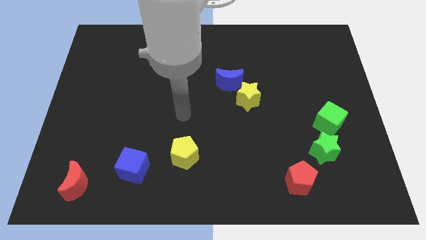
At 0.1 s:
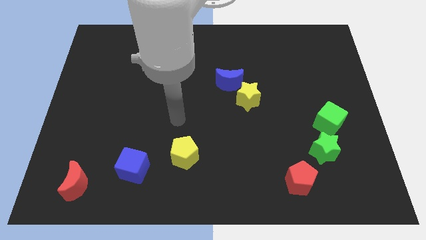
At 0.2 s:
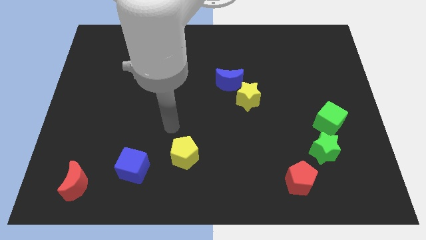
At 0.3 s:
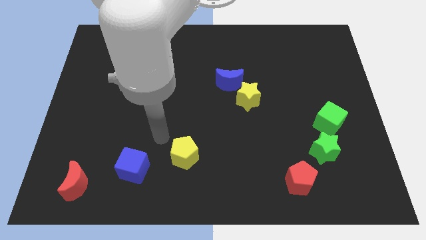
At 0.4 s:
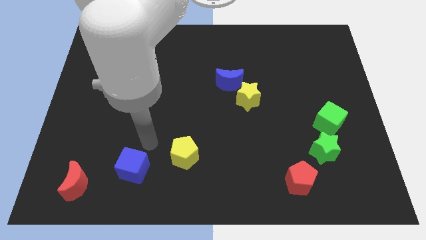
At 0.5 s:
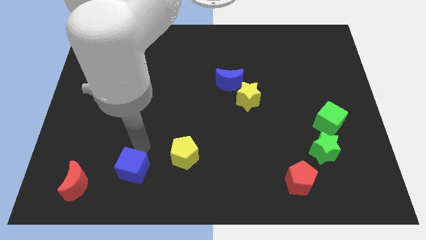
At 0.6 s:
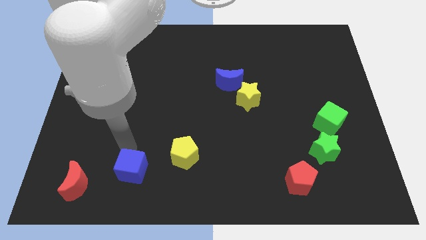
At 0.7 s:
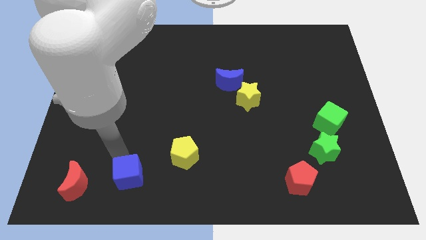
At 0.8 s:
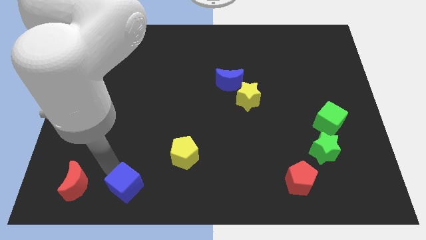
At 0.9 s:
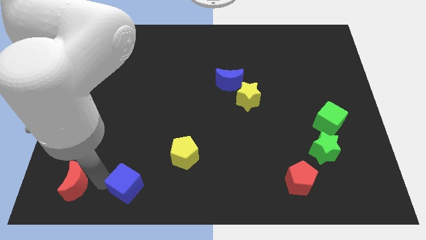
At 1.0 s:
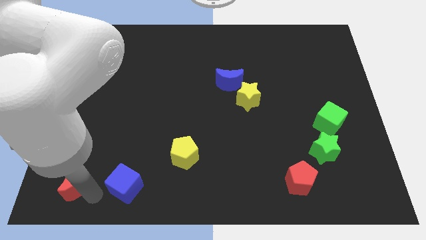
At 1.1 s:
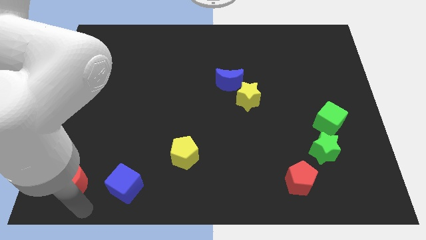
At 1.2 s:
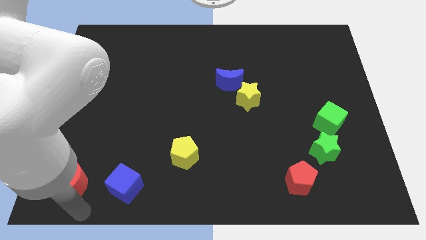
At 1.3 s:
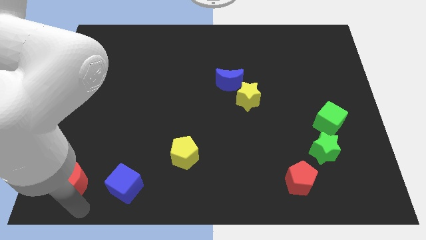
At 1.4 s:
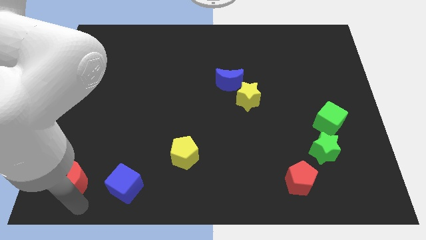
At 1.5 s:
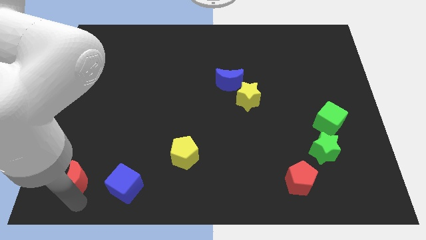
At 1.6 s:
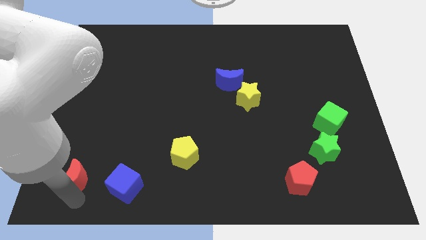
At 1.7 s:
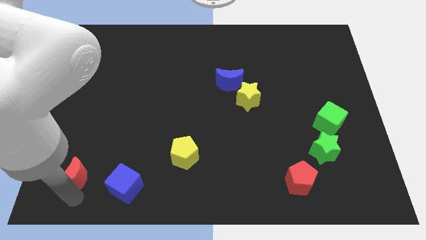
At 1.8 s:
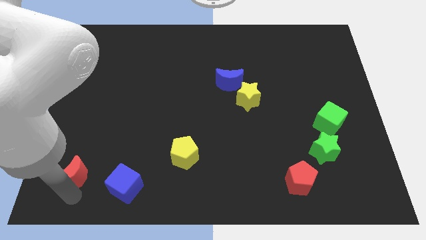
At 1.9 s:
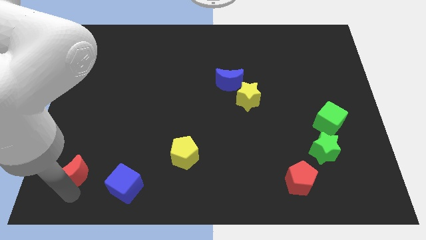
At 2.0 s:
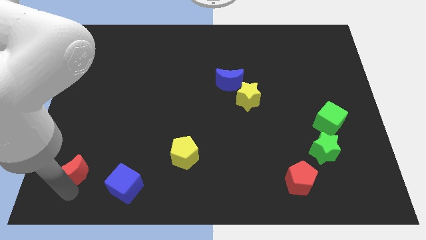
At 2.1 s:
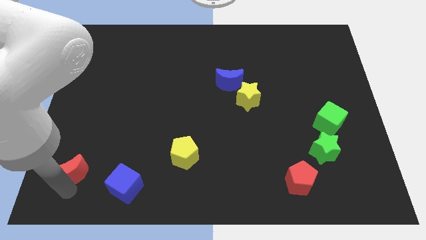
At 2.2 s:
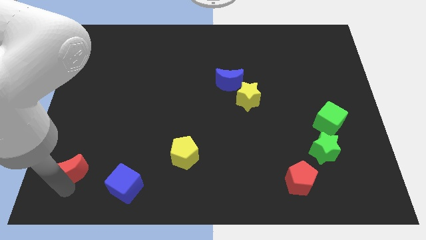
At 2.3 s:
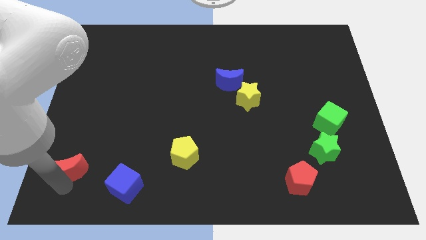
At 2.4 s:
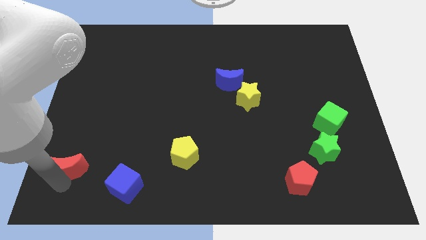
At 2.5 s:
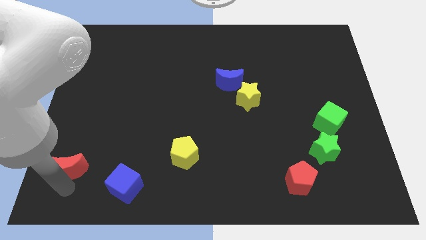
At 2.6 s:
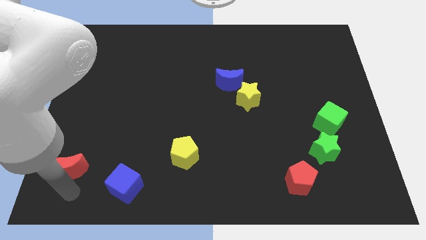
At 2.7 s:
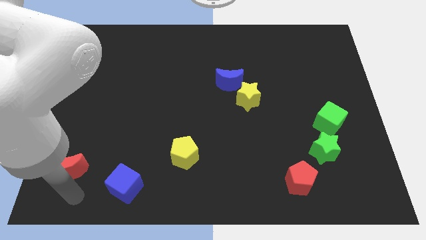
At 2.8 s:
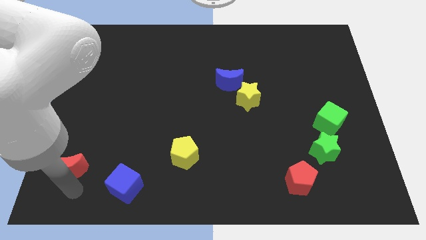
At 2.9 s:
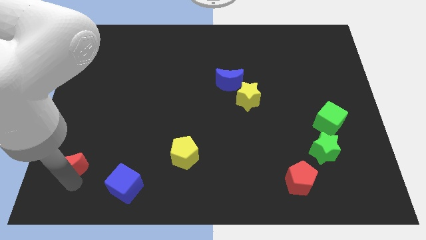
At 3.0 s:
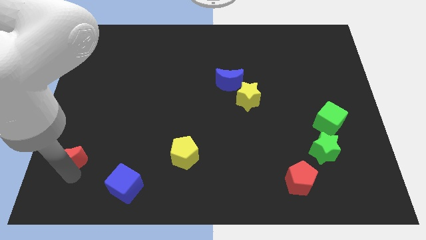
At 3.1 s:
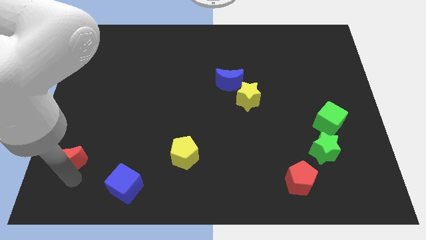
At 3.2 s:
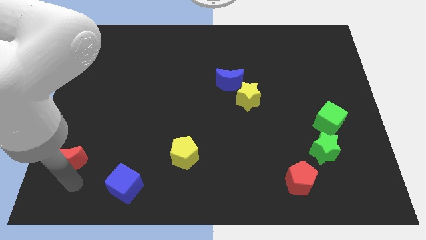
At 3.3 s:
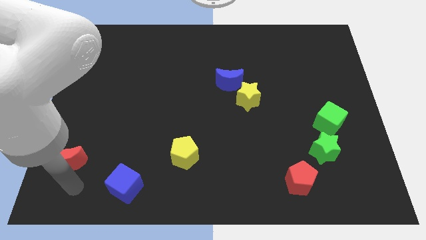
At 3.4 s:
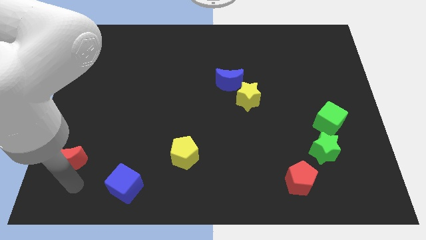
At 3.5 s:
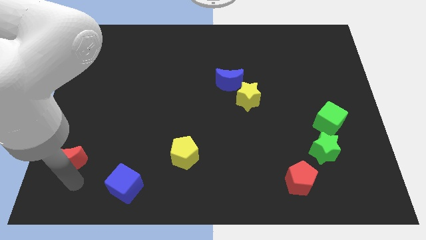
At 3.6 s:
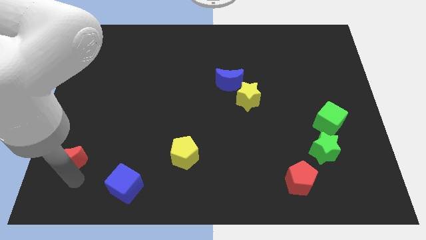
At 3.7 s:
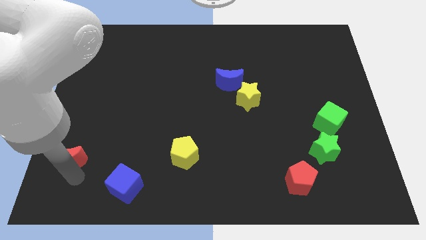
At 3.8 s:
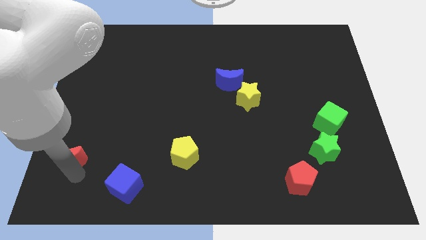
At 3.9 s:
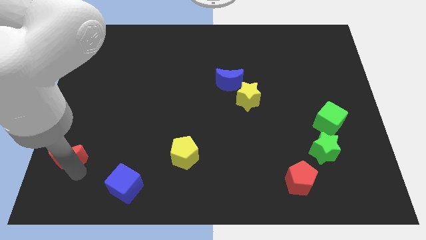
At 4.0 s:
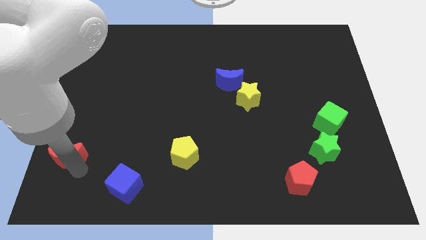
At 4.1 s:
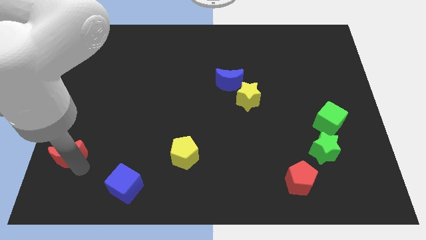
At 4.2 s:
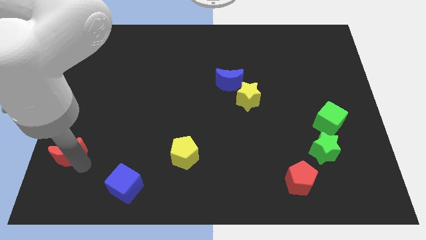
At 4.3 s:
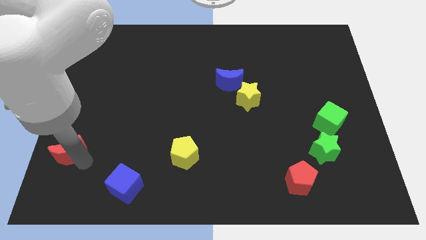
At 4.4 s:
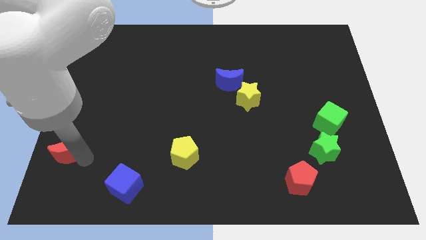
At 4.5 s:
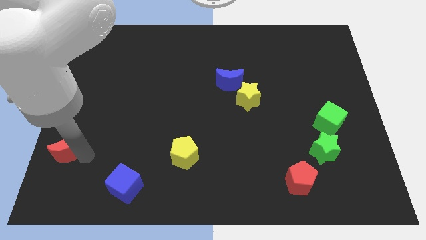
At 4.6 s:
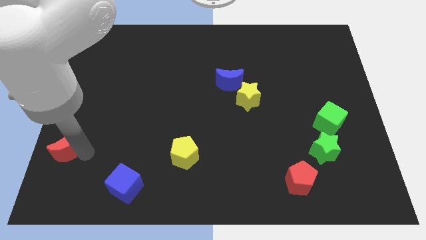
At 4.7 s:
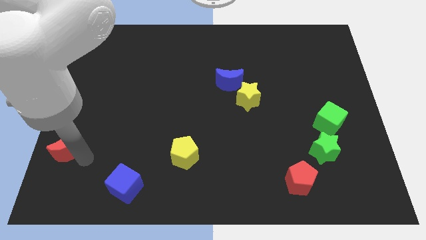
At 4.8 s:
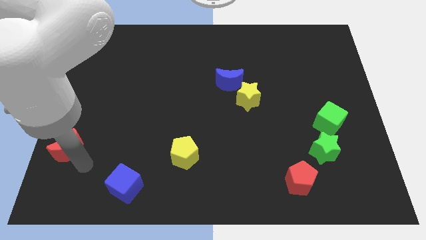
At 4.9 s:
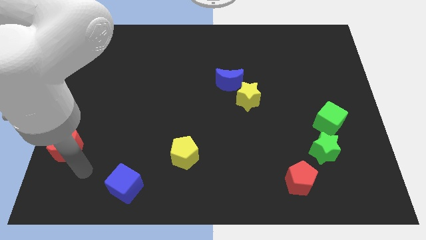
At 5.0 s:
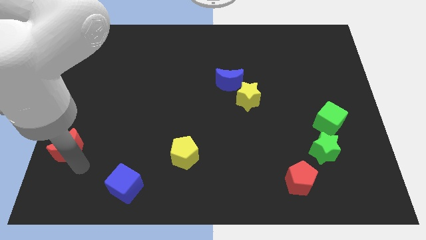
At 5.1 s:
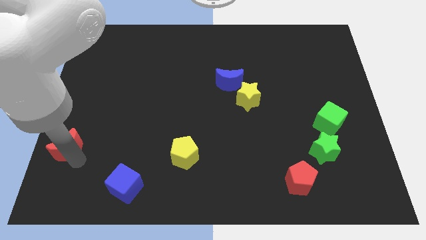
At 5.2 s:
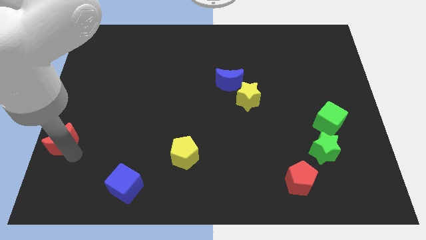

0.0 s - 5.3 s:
slide the red moon to the left side of the board

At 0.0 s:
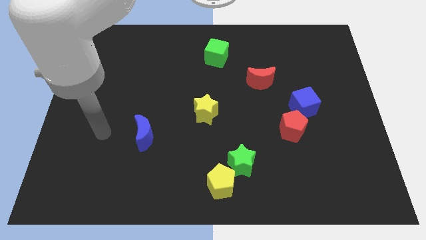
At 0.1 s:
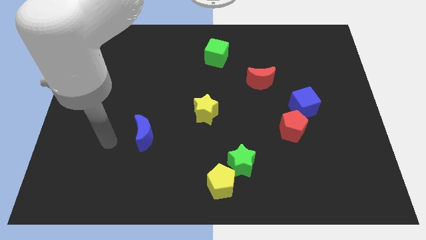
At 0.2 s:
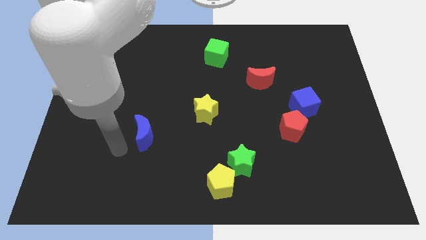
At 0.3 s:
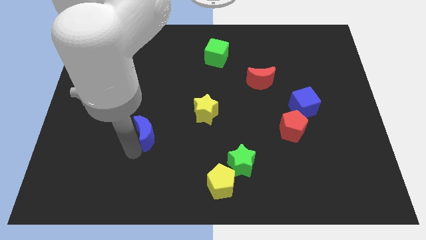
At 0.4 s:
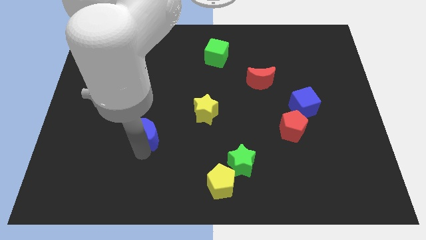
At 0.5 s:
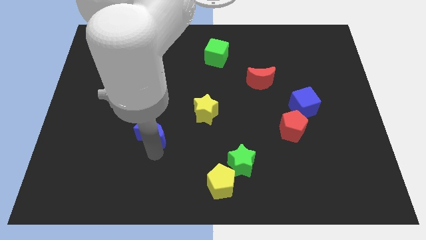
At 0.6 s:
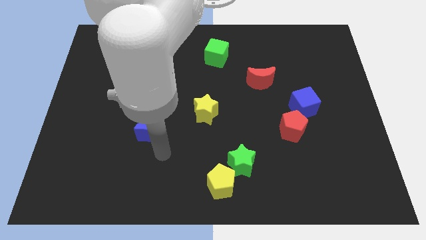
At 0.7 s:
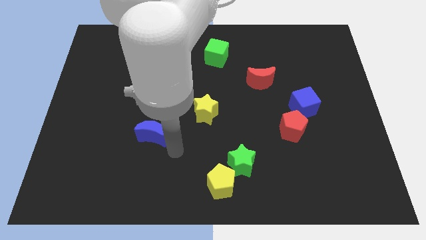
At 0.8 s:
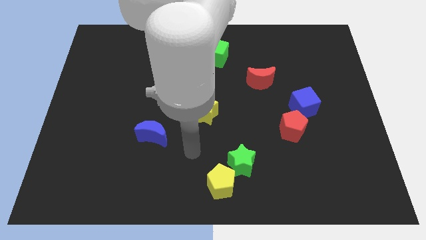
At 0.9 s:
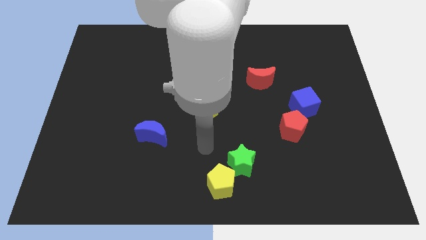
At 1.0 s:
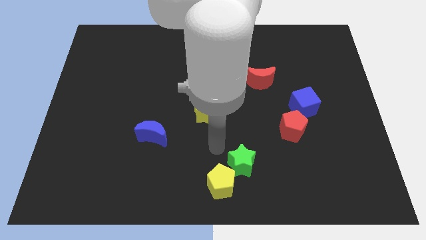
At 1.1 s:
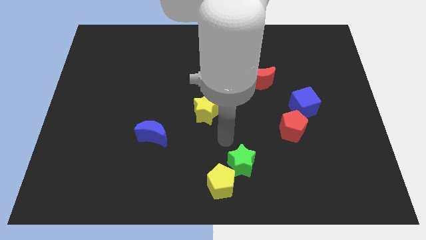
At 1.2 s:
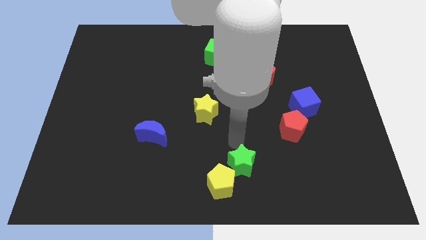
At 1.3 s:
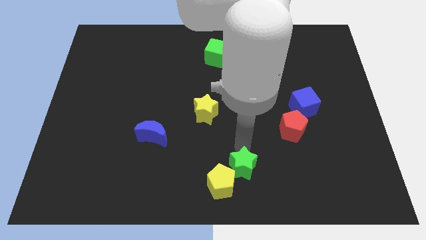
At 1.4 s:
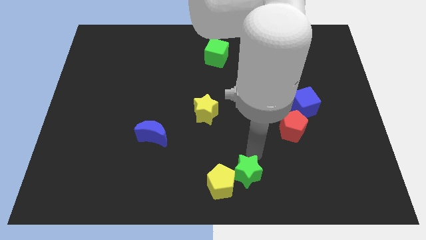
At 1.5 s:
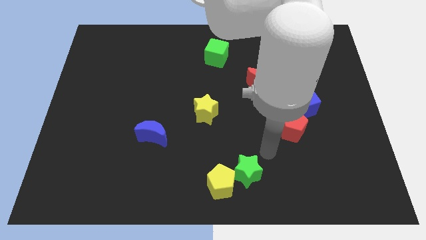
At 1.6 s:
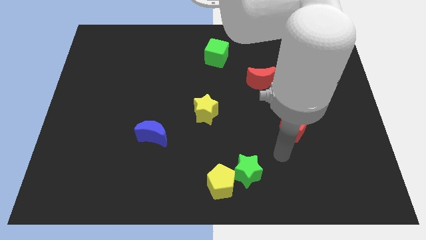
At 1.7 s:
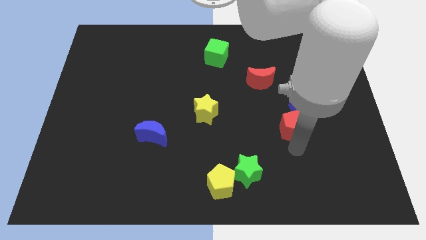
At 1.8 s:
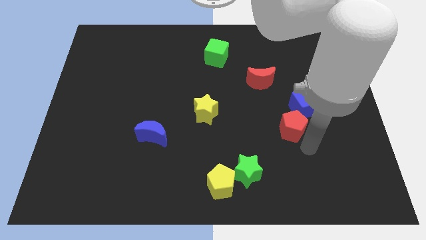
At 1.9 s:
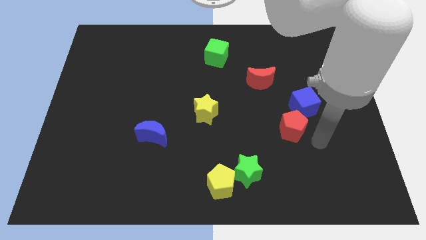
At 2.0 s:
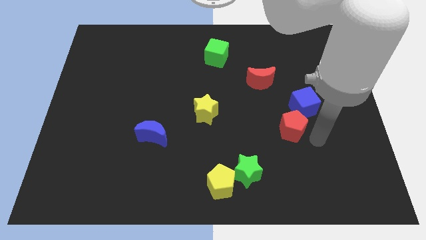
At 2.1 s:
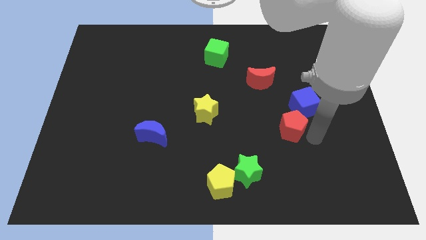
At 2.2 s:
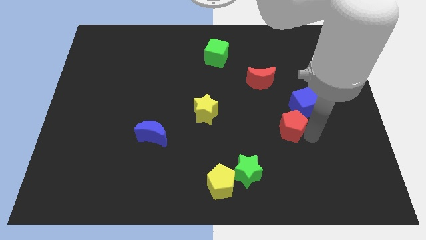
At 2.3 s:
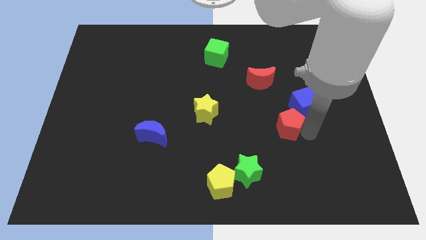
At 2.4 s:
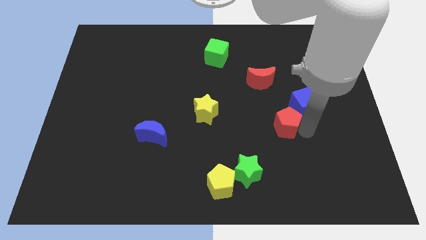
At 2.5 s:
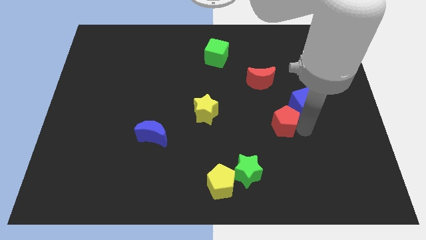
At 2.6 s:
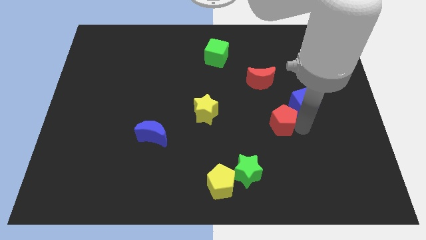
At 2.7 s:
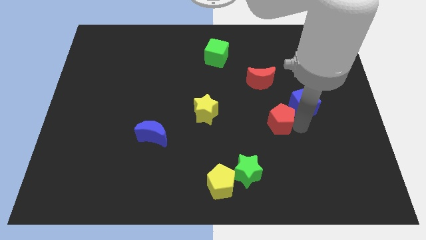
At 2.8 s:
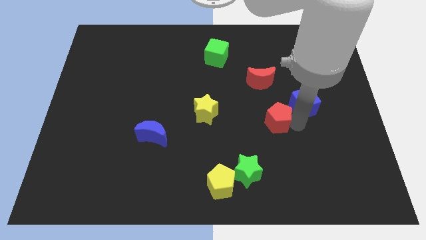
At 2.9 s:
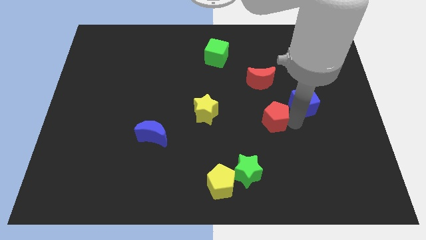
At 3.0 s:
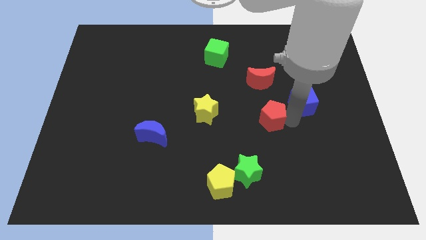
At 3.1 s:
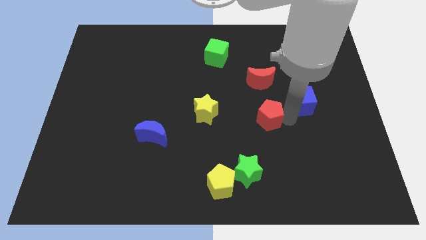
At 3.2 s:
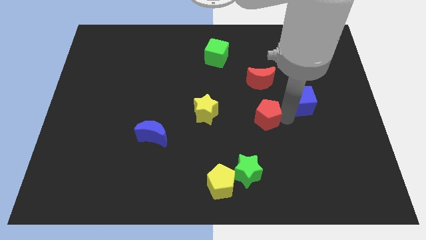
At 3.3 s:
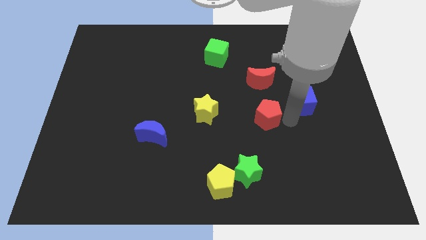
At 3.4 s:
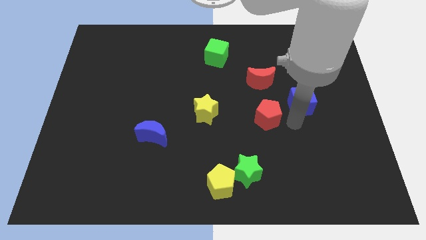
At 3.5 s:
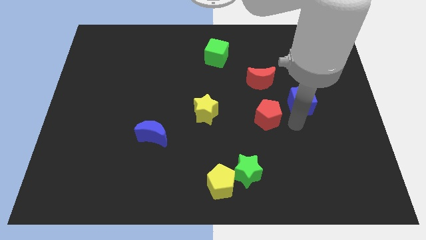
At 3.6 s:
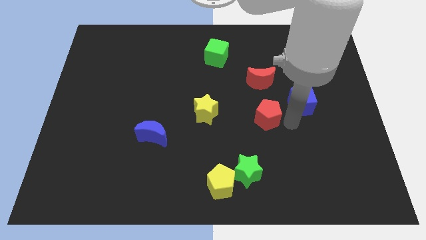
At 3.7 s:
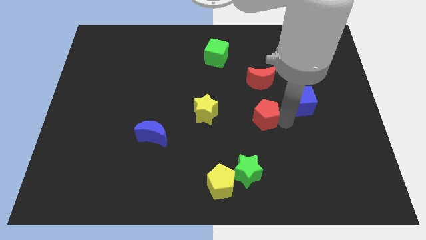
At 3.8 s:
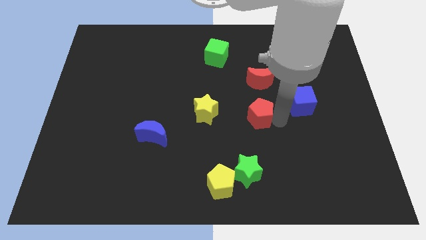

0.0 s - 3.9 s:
slide the red pentagon to the center
